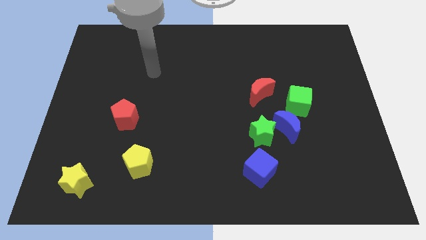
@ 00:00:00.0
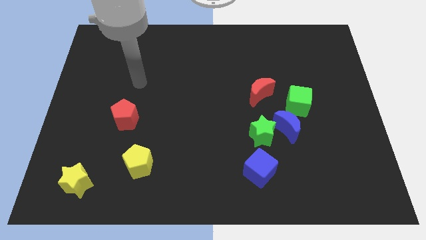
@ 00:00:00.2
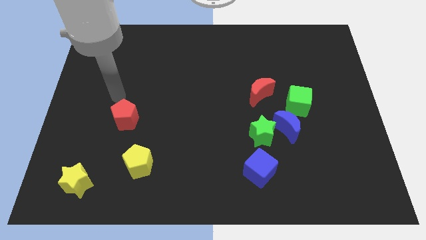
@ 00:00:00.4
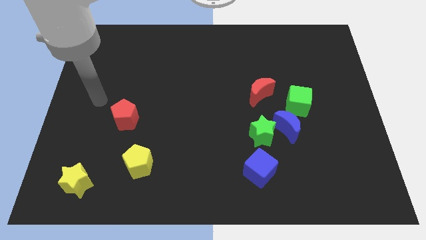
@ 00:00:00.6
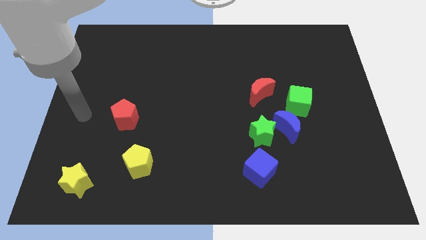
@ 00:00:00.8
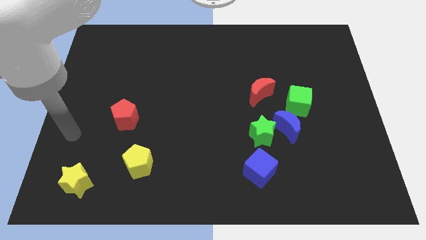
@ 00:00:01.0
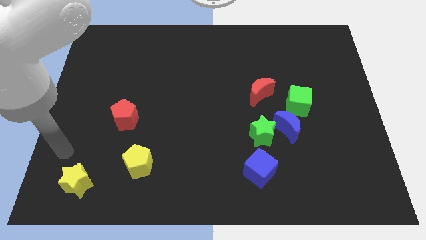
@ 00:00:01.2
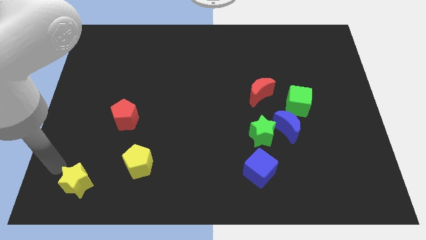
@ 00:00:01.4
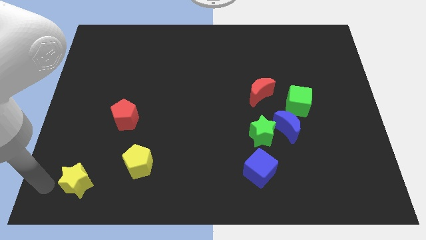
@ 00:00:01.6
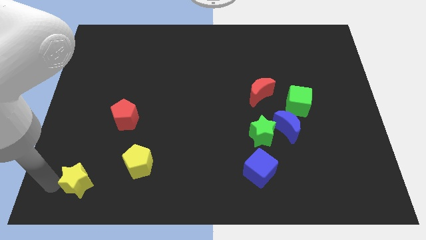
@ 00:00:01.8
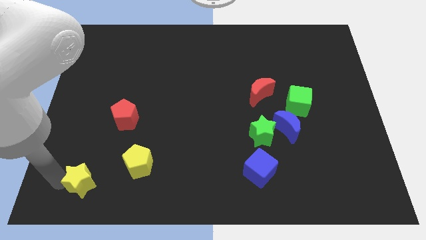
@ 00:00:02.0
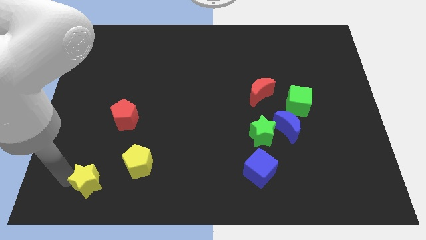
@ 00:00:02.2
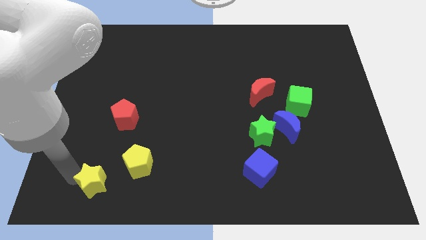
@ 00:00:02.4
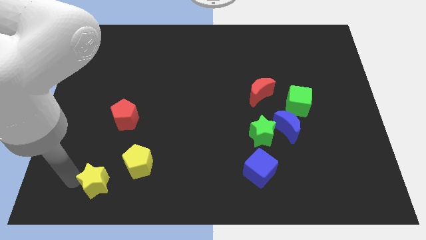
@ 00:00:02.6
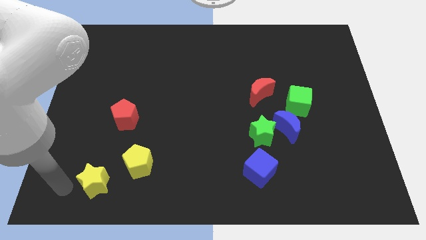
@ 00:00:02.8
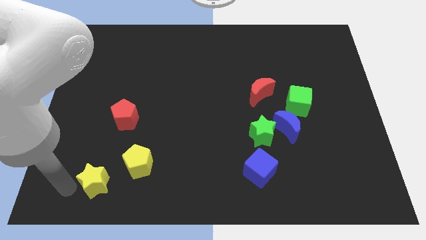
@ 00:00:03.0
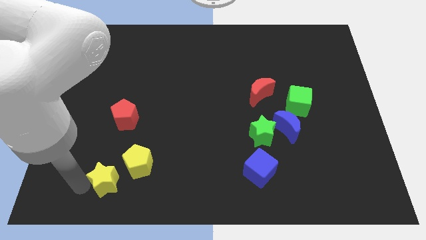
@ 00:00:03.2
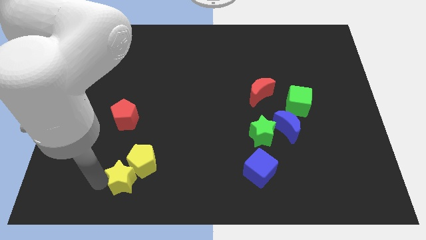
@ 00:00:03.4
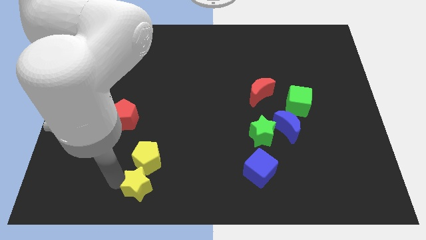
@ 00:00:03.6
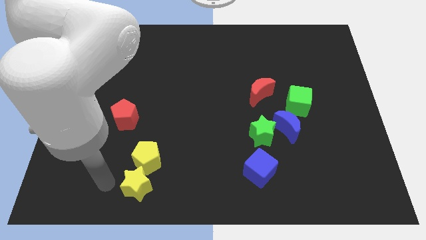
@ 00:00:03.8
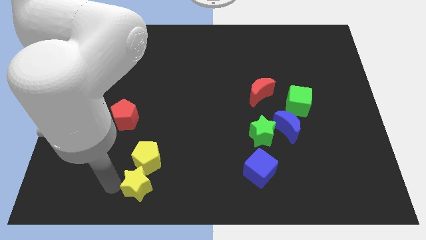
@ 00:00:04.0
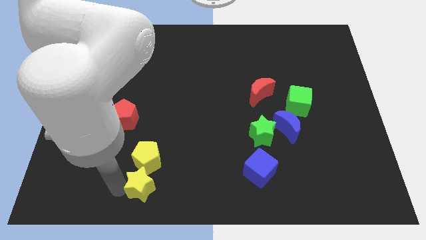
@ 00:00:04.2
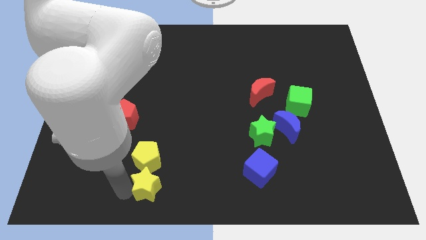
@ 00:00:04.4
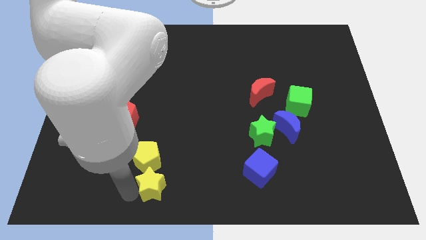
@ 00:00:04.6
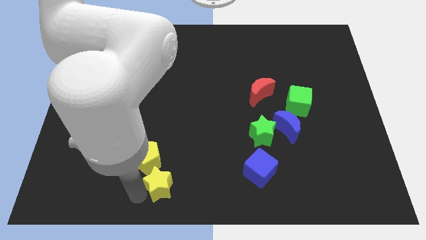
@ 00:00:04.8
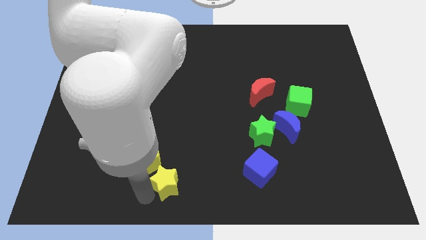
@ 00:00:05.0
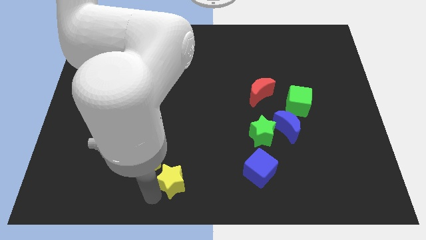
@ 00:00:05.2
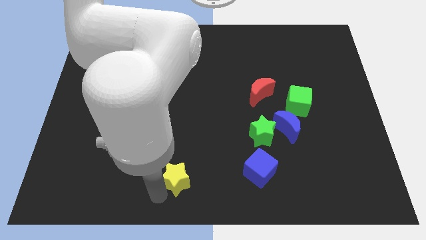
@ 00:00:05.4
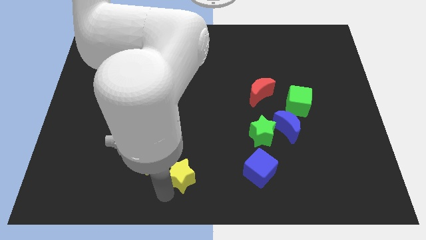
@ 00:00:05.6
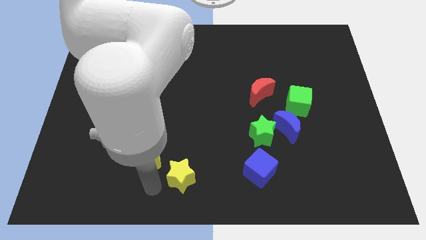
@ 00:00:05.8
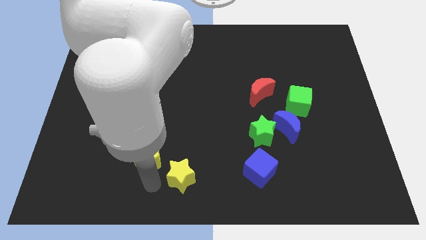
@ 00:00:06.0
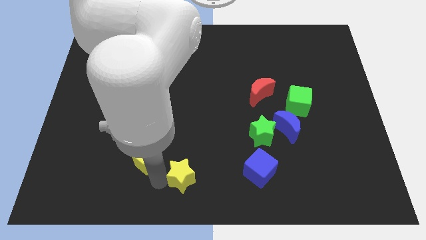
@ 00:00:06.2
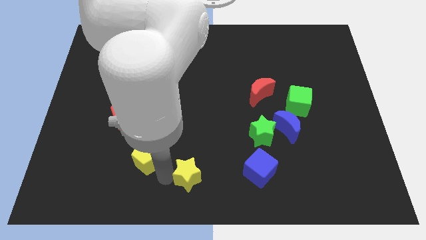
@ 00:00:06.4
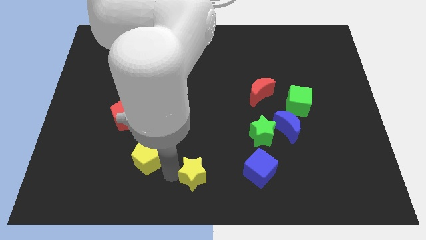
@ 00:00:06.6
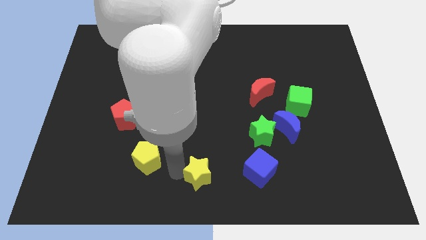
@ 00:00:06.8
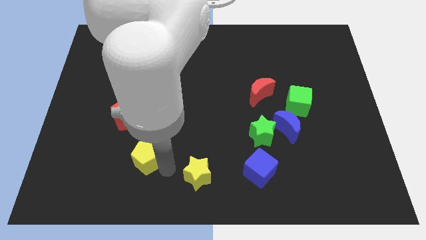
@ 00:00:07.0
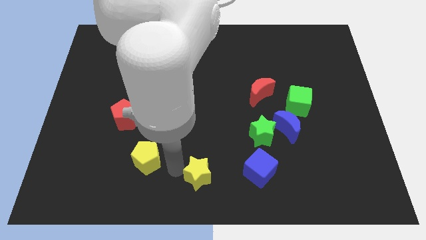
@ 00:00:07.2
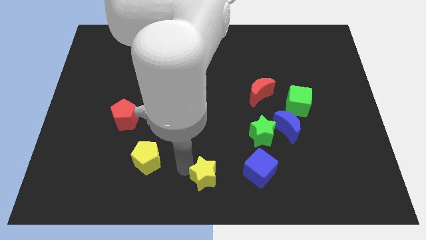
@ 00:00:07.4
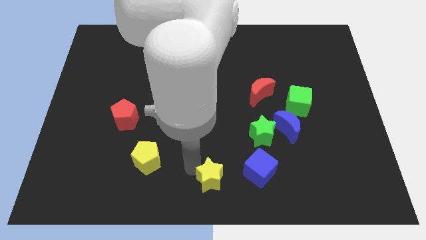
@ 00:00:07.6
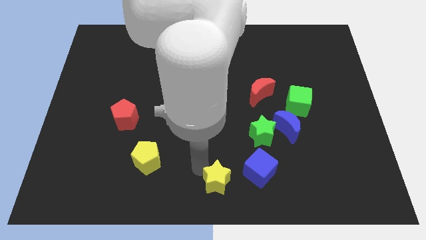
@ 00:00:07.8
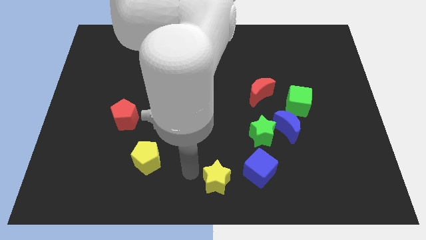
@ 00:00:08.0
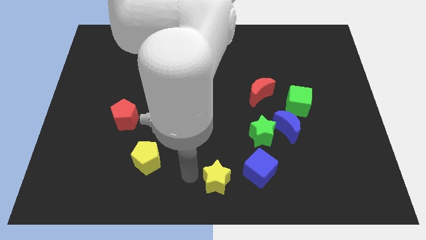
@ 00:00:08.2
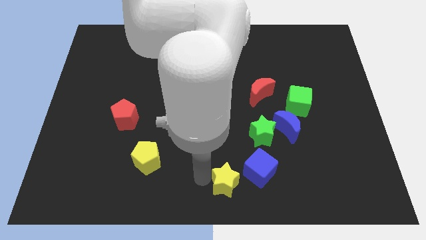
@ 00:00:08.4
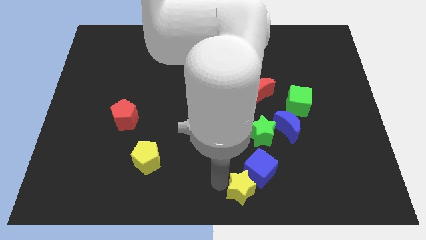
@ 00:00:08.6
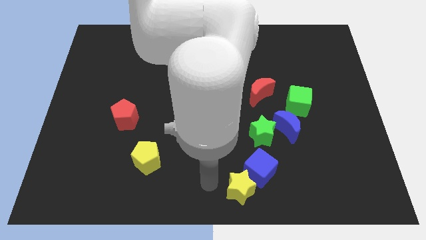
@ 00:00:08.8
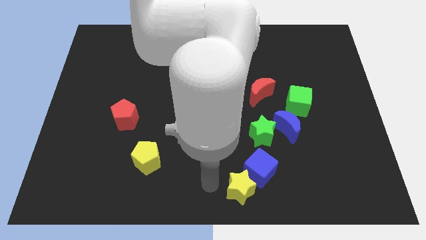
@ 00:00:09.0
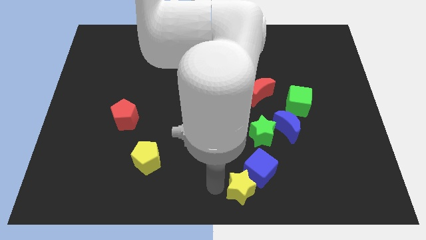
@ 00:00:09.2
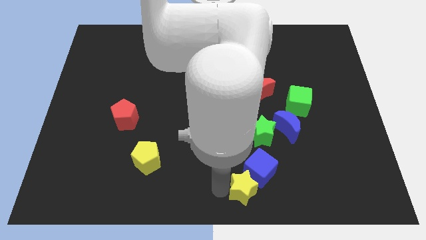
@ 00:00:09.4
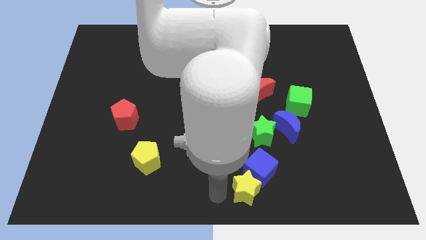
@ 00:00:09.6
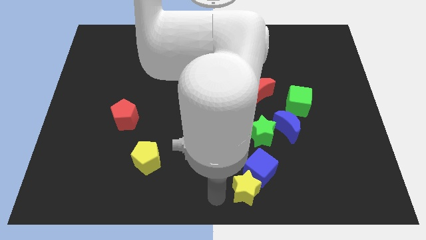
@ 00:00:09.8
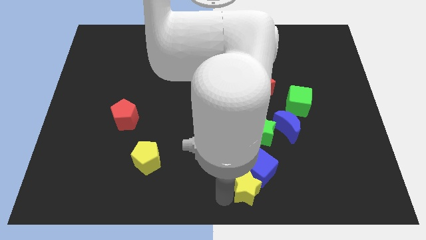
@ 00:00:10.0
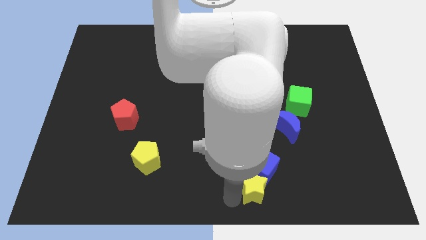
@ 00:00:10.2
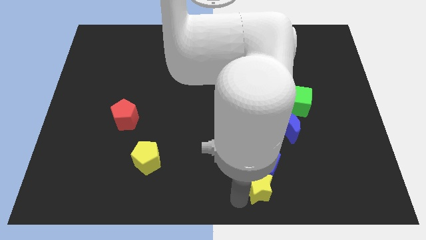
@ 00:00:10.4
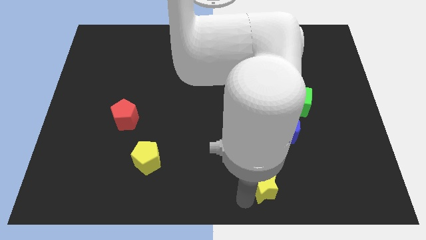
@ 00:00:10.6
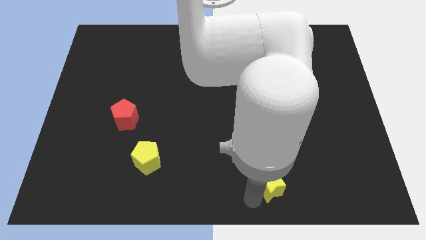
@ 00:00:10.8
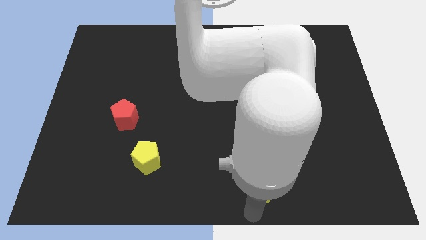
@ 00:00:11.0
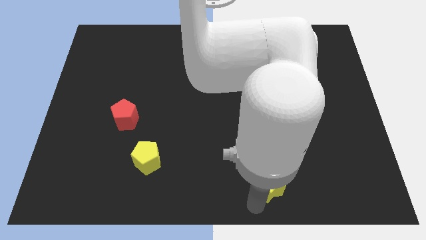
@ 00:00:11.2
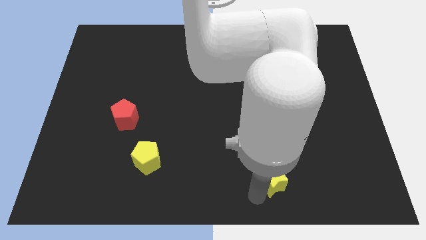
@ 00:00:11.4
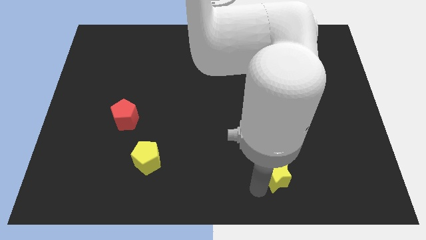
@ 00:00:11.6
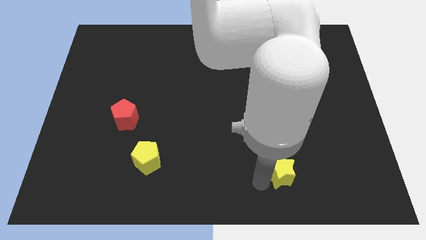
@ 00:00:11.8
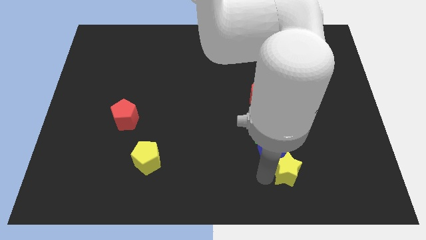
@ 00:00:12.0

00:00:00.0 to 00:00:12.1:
slide the yellow star to the bottom right side of the green star

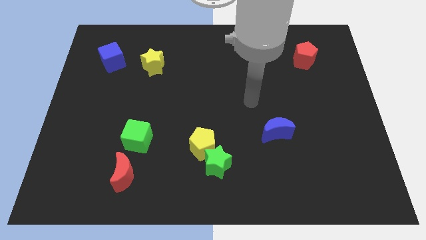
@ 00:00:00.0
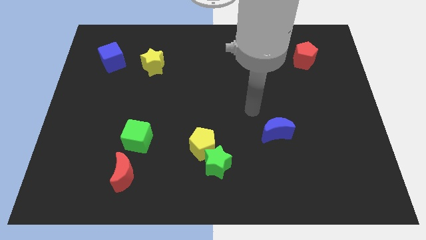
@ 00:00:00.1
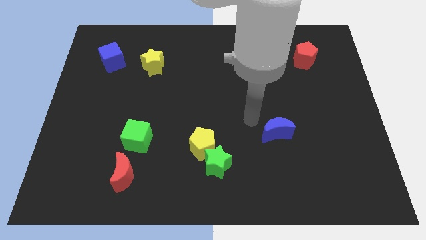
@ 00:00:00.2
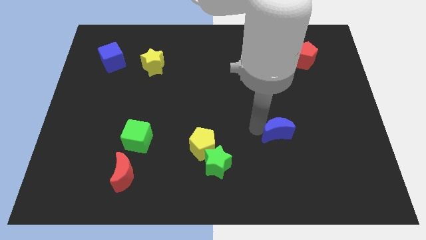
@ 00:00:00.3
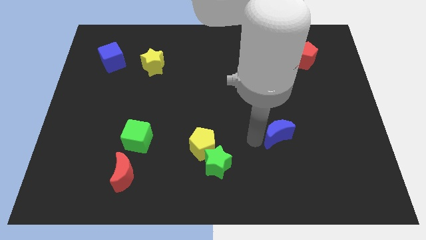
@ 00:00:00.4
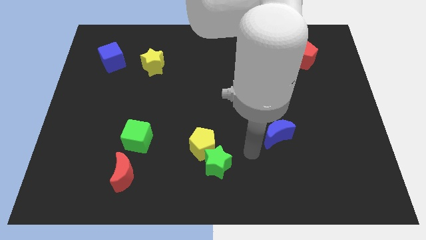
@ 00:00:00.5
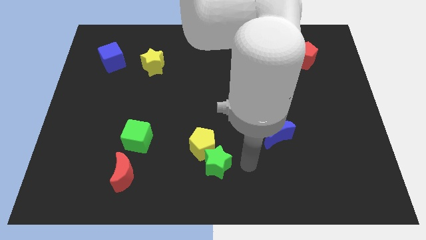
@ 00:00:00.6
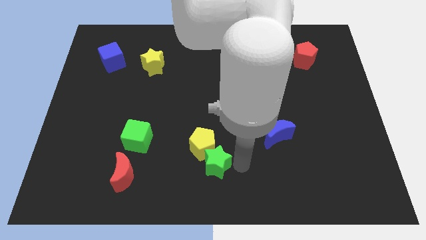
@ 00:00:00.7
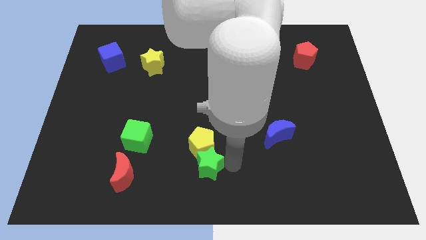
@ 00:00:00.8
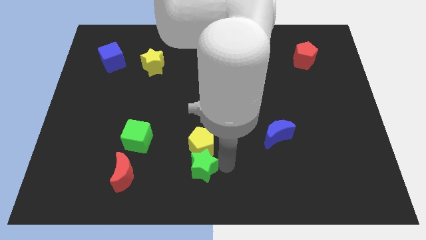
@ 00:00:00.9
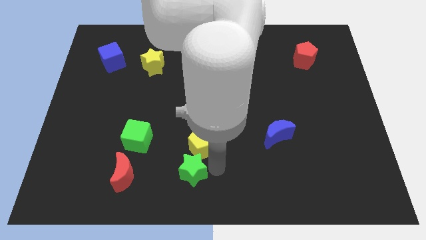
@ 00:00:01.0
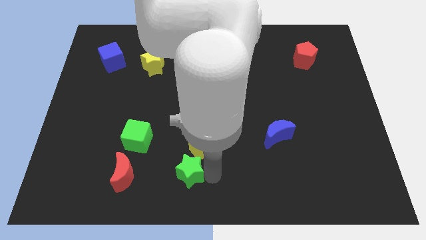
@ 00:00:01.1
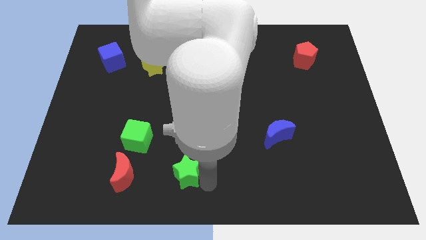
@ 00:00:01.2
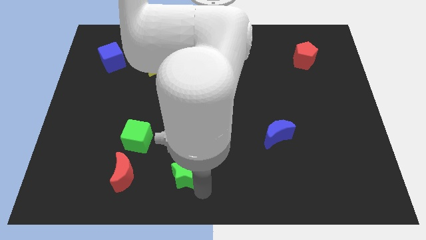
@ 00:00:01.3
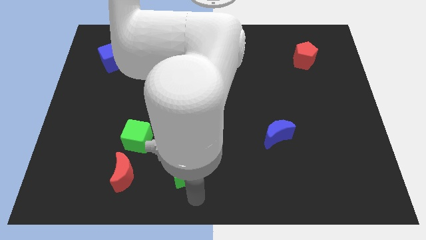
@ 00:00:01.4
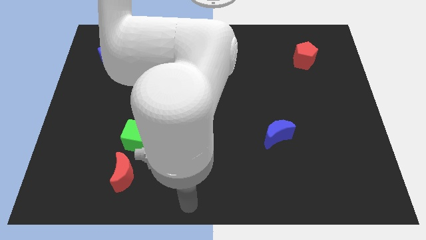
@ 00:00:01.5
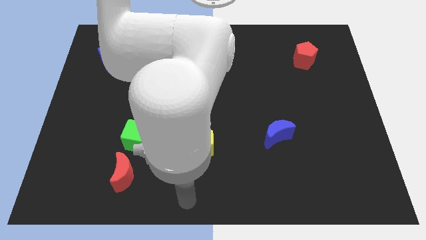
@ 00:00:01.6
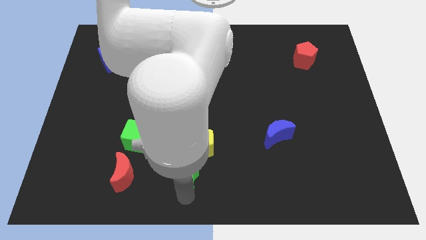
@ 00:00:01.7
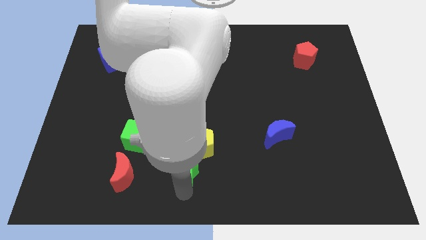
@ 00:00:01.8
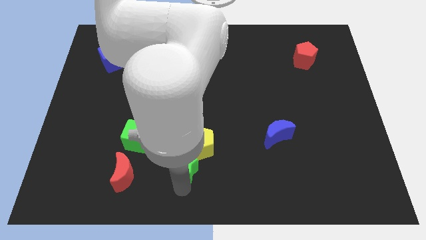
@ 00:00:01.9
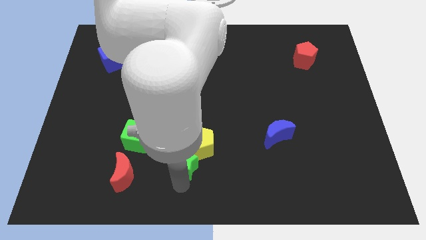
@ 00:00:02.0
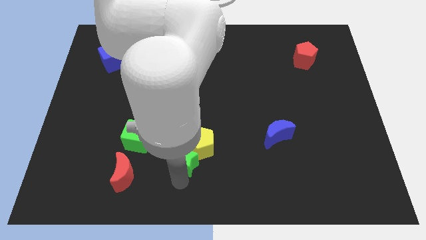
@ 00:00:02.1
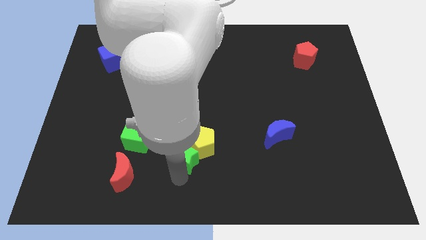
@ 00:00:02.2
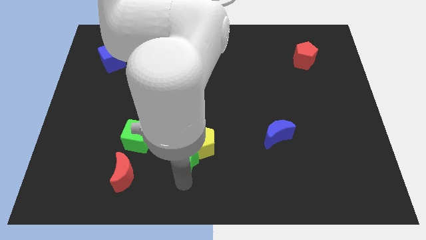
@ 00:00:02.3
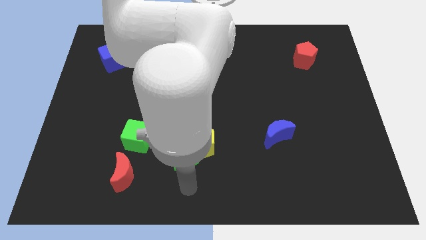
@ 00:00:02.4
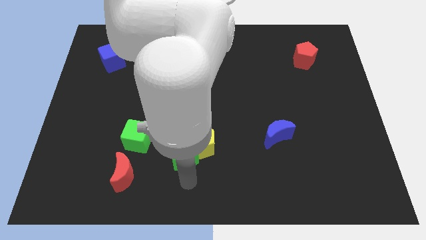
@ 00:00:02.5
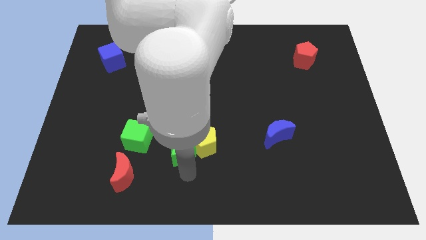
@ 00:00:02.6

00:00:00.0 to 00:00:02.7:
move the green star just right of the green cube
